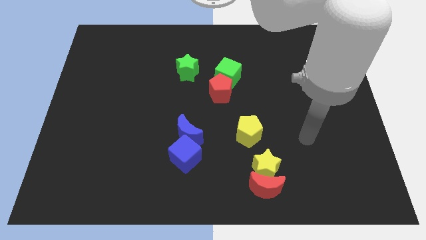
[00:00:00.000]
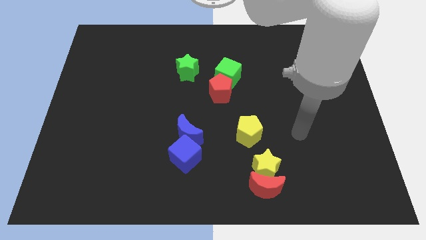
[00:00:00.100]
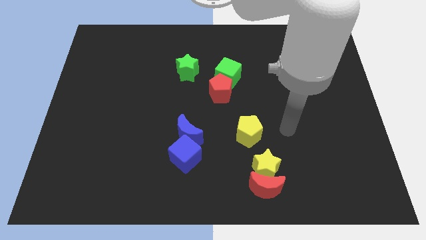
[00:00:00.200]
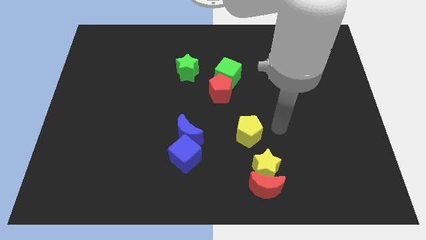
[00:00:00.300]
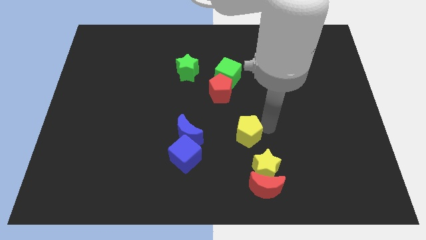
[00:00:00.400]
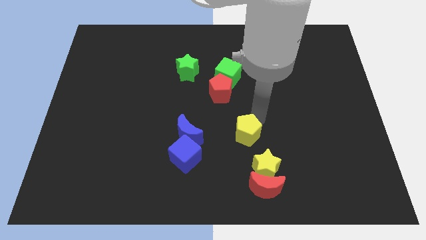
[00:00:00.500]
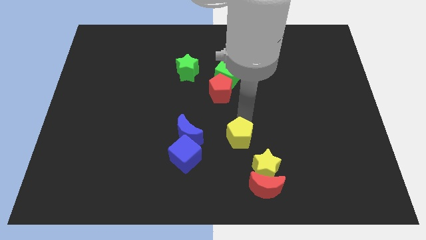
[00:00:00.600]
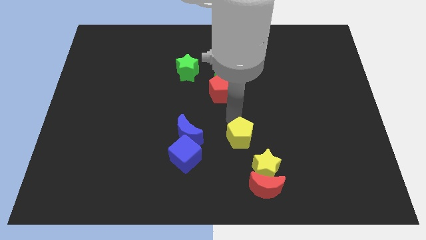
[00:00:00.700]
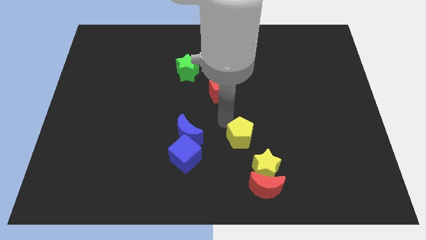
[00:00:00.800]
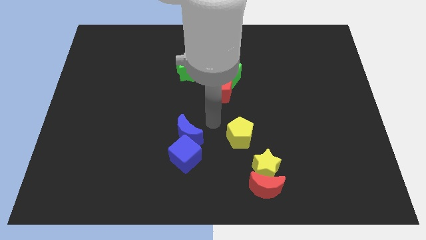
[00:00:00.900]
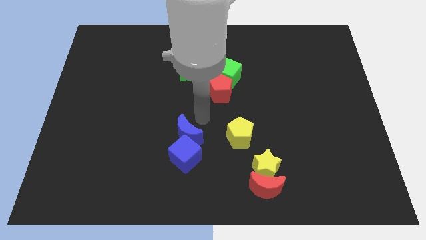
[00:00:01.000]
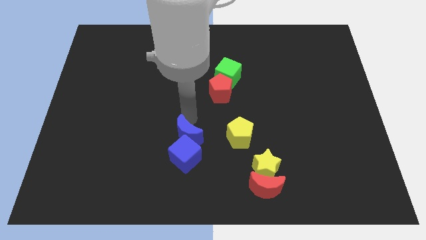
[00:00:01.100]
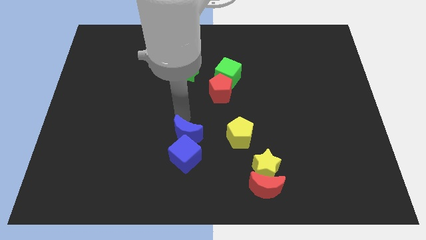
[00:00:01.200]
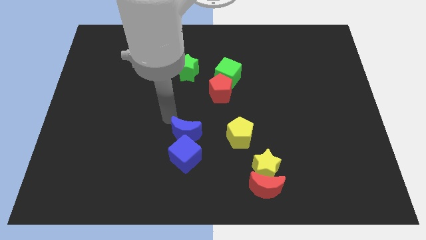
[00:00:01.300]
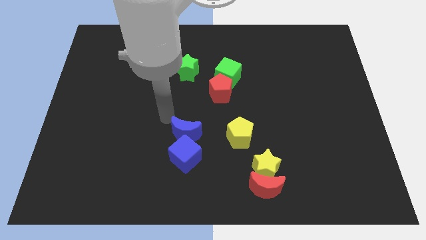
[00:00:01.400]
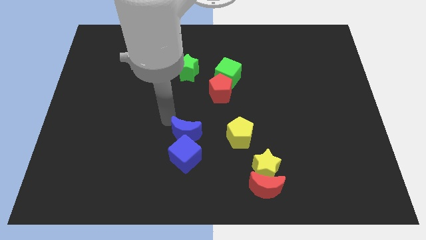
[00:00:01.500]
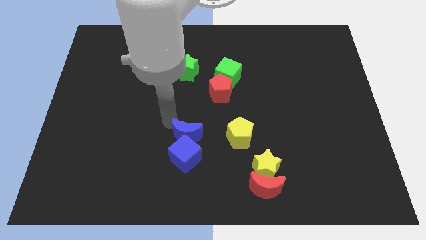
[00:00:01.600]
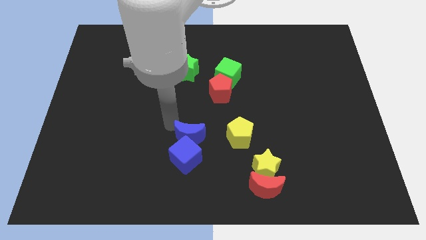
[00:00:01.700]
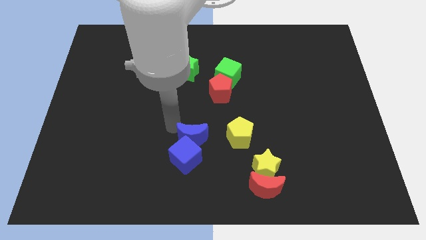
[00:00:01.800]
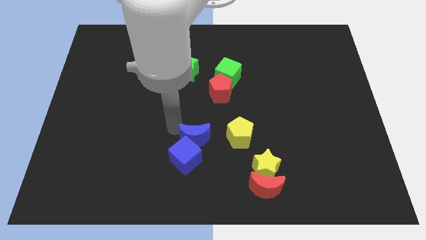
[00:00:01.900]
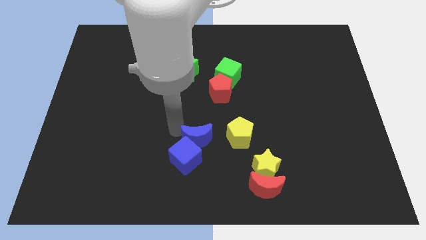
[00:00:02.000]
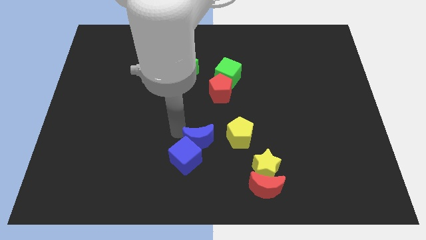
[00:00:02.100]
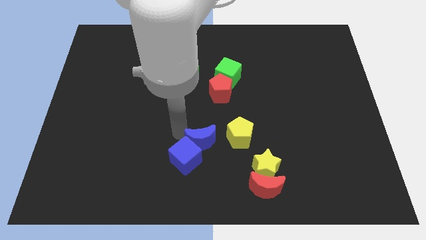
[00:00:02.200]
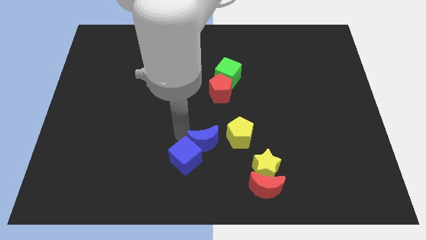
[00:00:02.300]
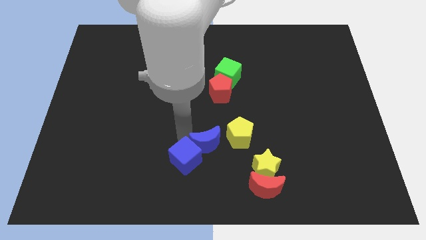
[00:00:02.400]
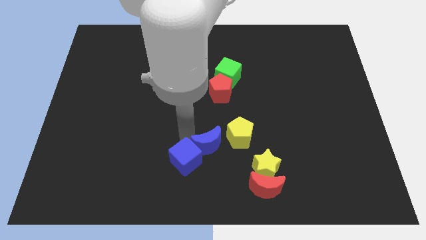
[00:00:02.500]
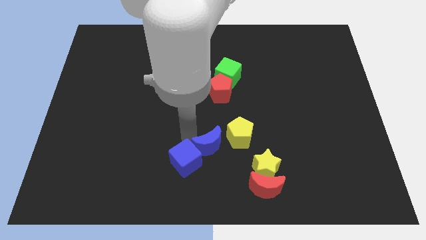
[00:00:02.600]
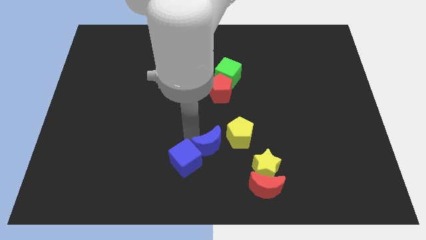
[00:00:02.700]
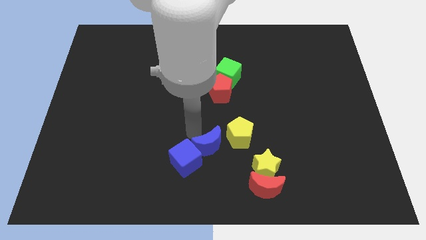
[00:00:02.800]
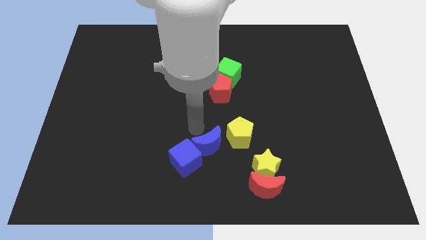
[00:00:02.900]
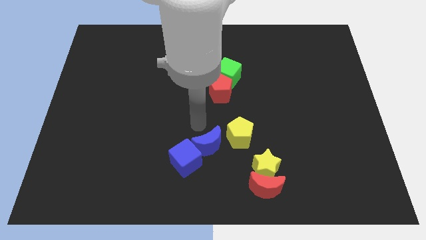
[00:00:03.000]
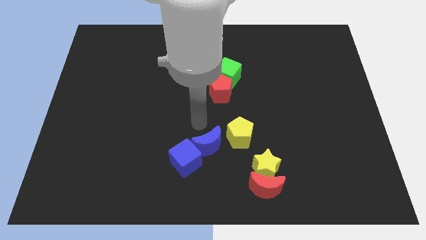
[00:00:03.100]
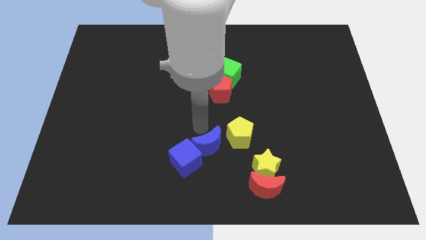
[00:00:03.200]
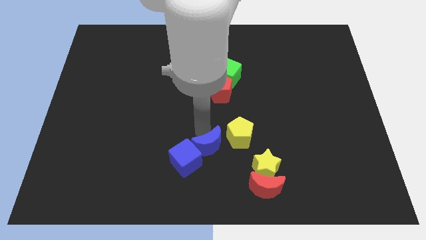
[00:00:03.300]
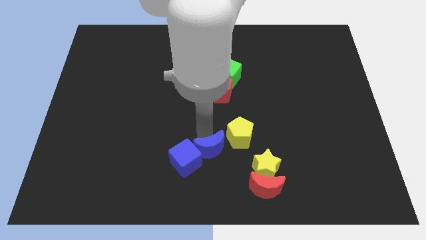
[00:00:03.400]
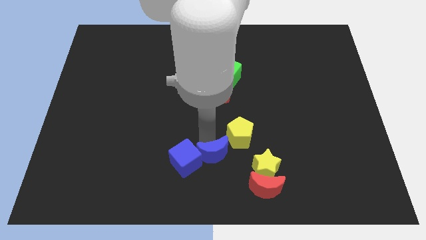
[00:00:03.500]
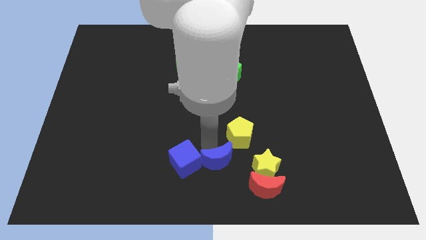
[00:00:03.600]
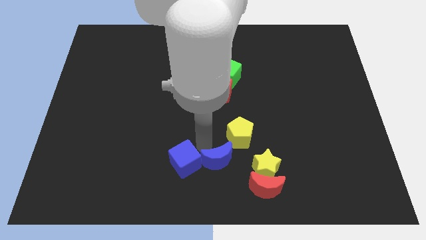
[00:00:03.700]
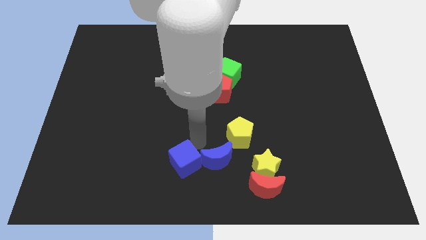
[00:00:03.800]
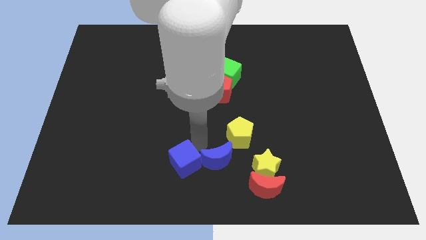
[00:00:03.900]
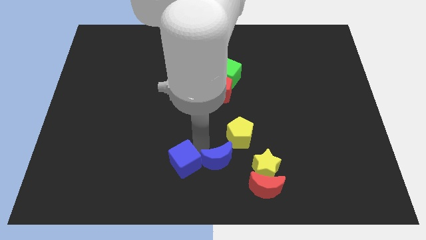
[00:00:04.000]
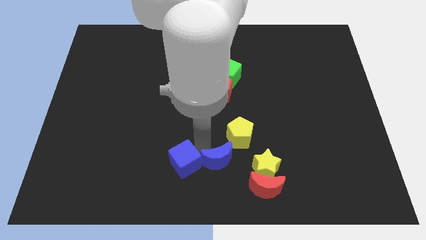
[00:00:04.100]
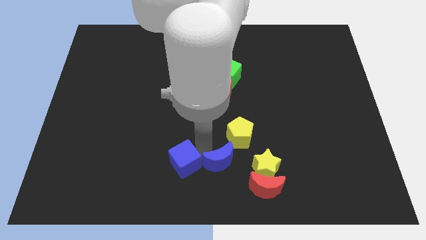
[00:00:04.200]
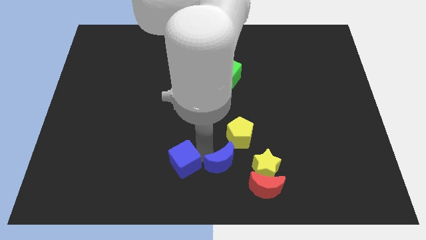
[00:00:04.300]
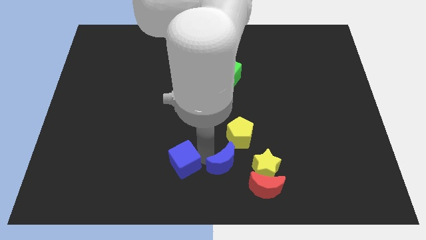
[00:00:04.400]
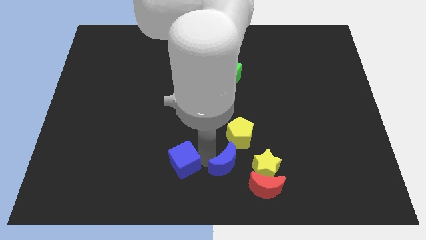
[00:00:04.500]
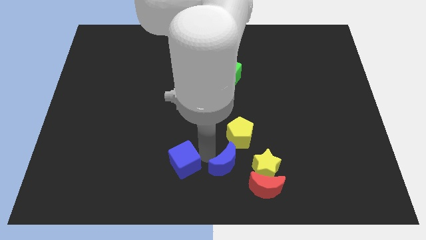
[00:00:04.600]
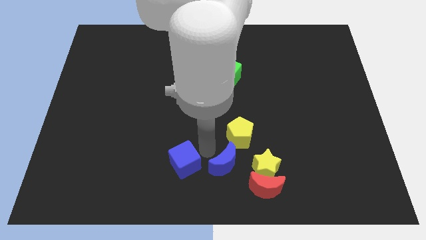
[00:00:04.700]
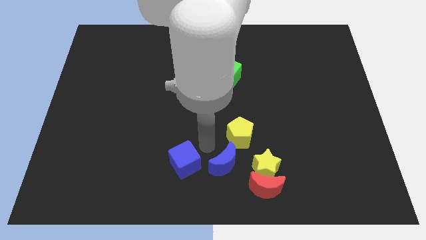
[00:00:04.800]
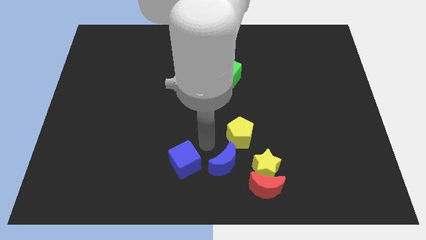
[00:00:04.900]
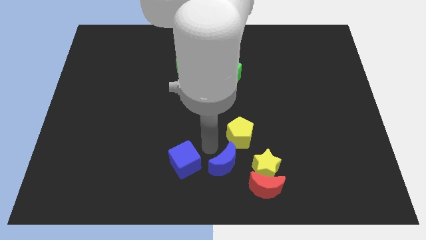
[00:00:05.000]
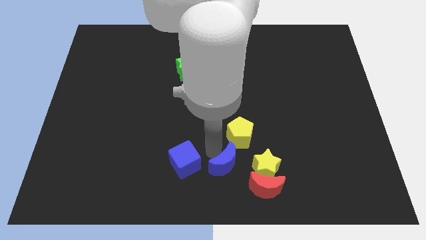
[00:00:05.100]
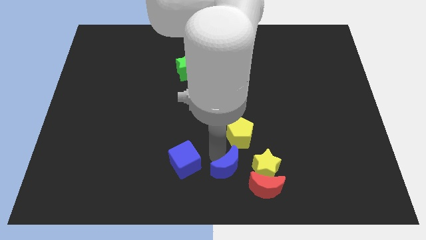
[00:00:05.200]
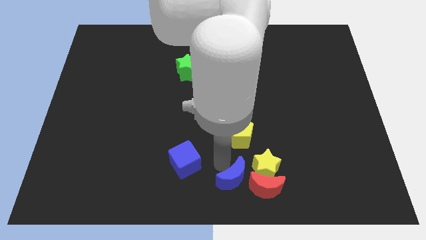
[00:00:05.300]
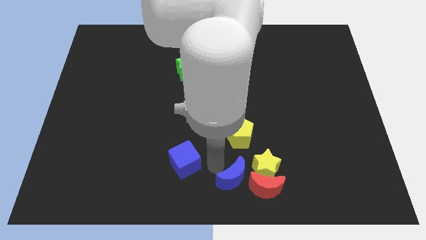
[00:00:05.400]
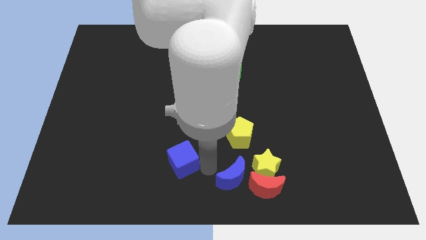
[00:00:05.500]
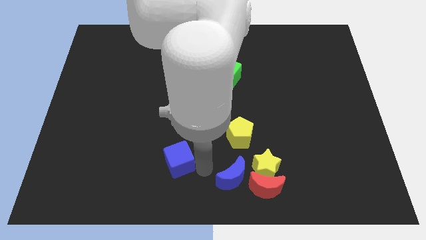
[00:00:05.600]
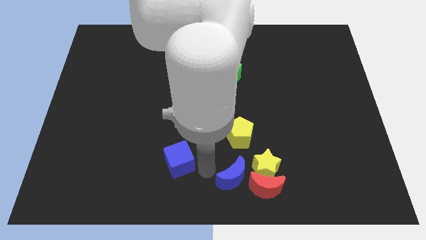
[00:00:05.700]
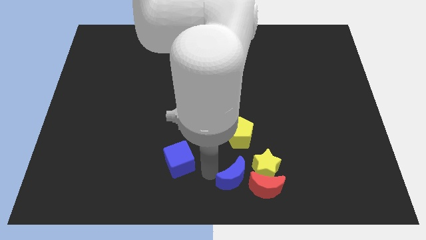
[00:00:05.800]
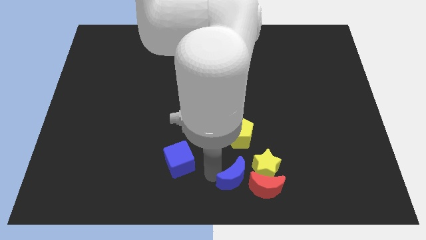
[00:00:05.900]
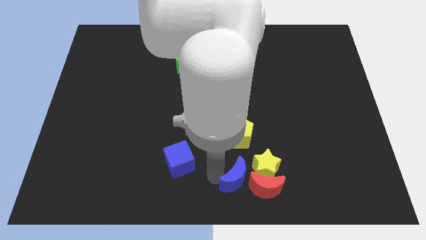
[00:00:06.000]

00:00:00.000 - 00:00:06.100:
move the blue moon next to the red moon

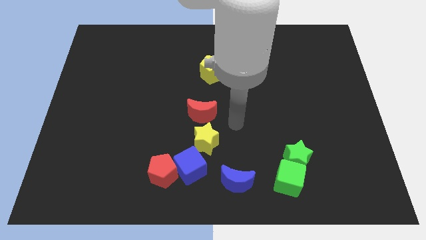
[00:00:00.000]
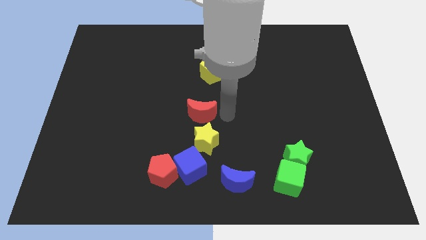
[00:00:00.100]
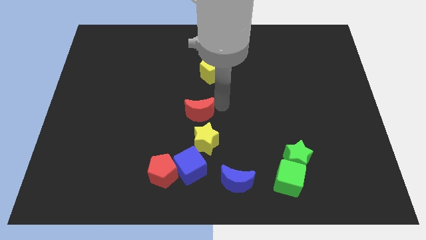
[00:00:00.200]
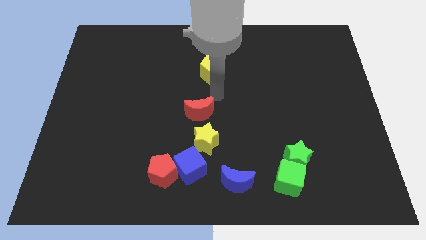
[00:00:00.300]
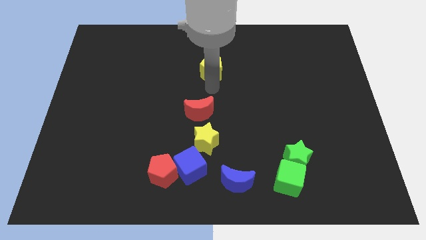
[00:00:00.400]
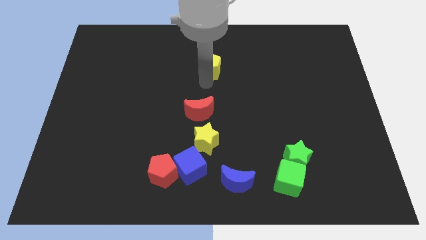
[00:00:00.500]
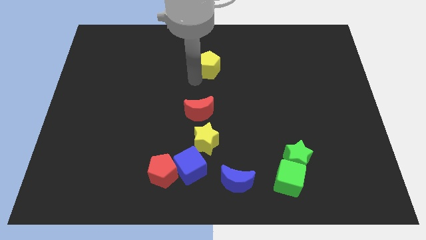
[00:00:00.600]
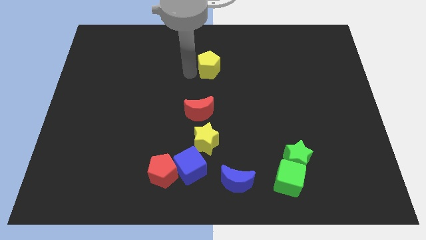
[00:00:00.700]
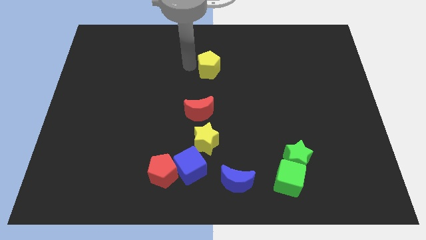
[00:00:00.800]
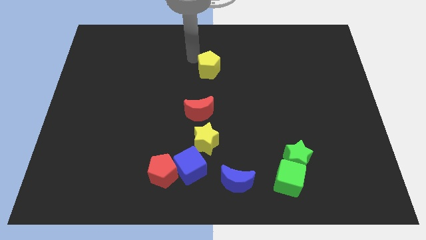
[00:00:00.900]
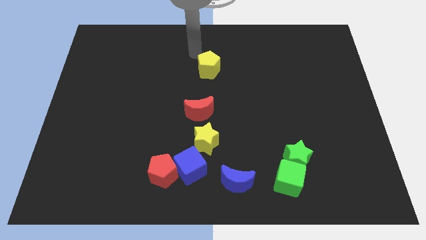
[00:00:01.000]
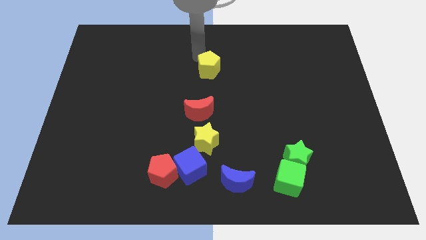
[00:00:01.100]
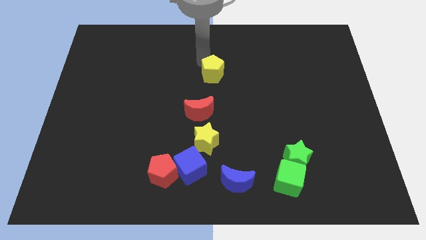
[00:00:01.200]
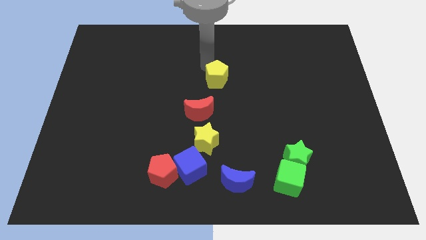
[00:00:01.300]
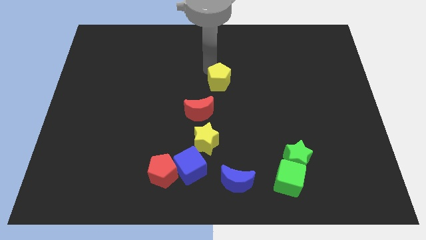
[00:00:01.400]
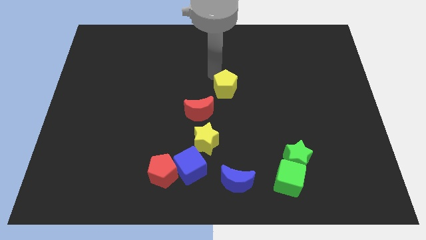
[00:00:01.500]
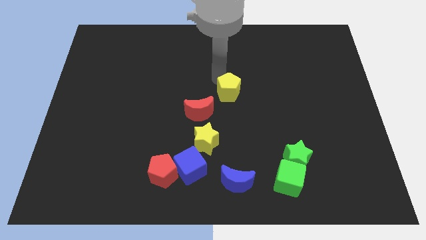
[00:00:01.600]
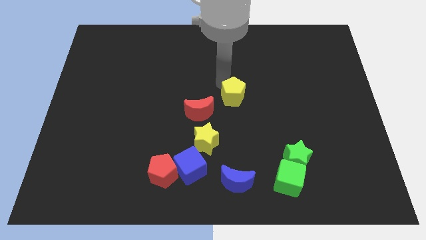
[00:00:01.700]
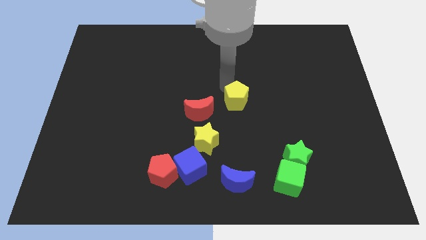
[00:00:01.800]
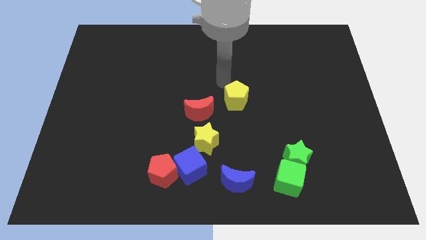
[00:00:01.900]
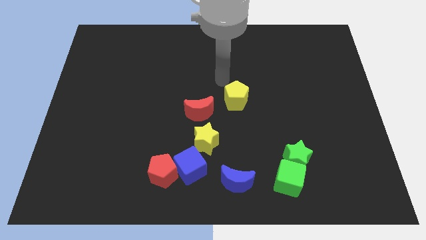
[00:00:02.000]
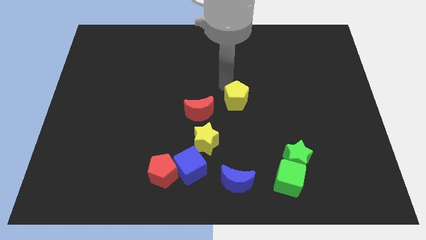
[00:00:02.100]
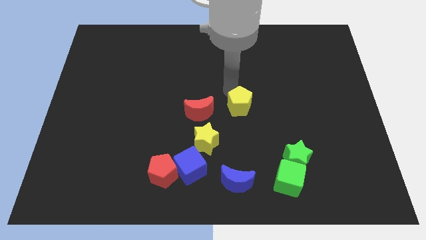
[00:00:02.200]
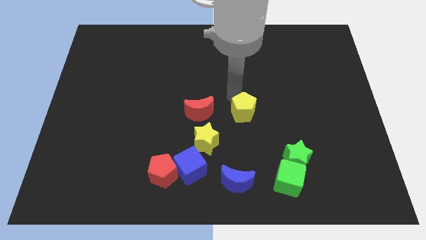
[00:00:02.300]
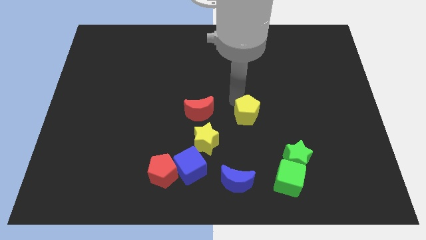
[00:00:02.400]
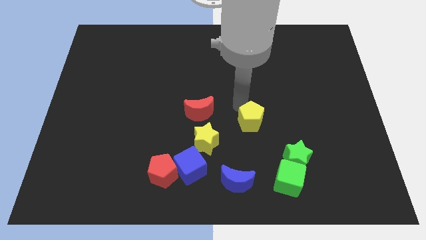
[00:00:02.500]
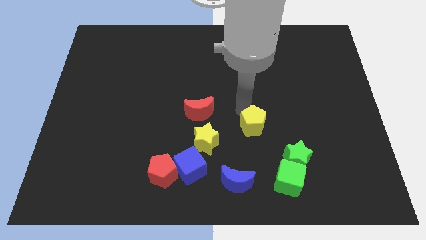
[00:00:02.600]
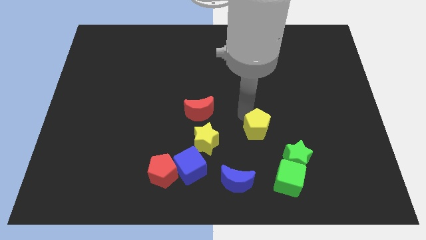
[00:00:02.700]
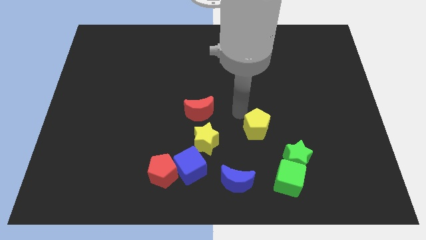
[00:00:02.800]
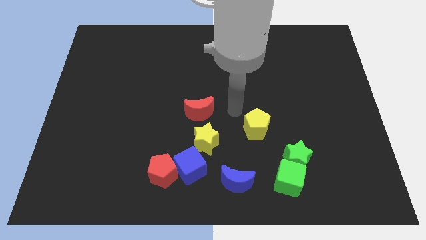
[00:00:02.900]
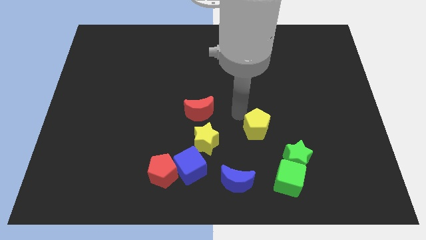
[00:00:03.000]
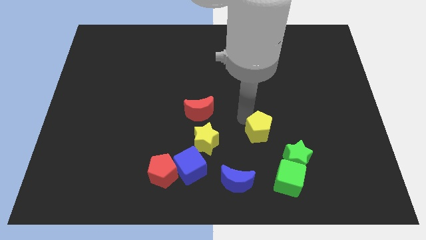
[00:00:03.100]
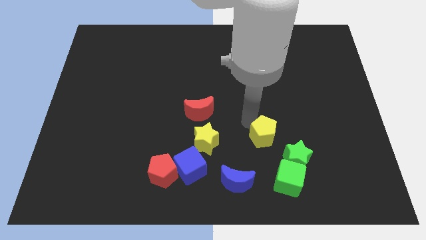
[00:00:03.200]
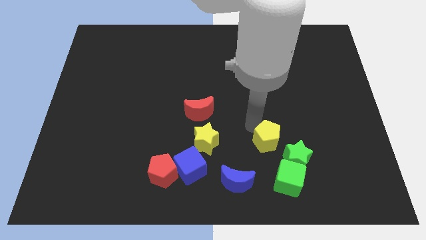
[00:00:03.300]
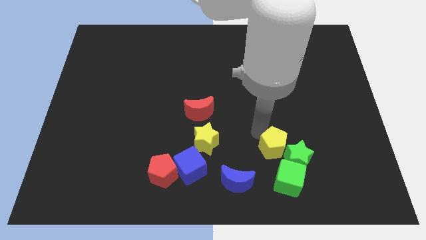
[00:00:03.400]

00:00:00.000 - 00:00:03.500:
slide the yellow pentagon next to the green star
